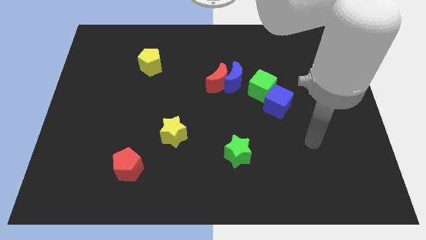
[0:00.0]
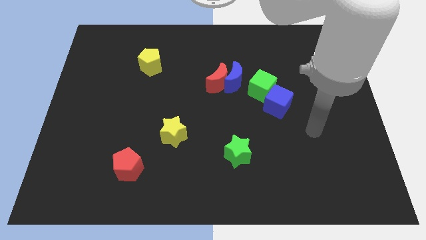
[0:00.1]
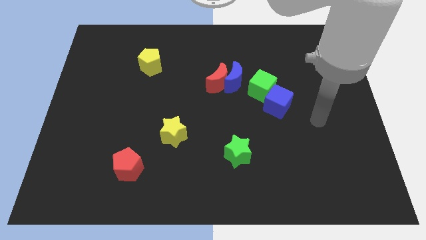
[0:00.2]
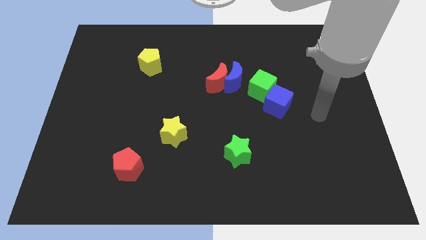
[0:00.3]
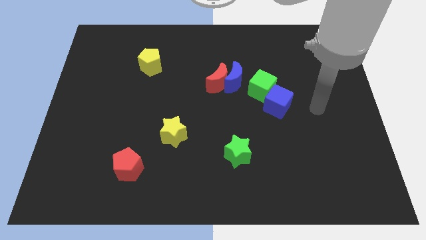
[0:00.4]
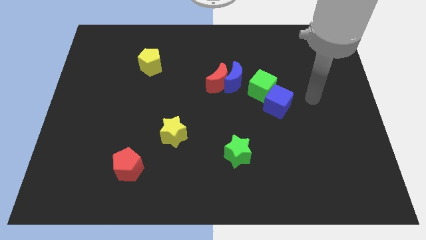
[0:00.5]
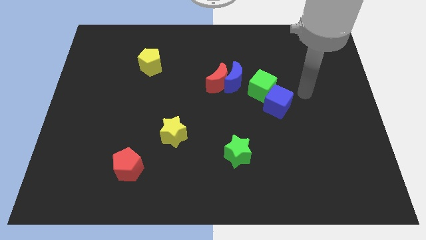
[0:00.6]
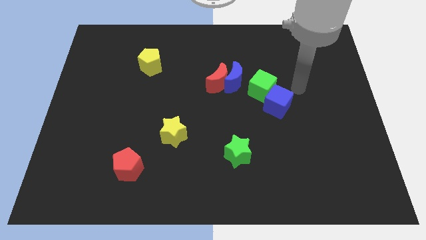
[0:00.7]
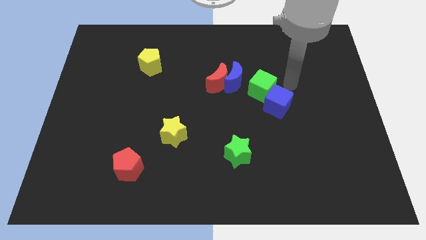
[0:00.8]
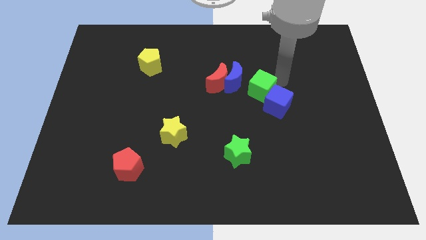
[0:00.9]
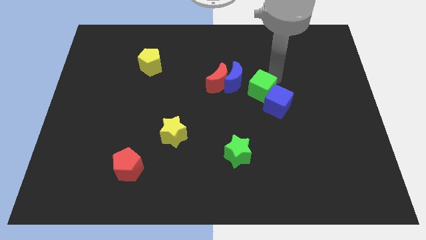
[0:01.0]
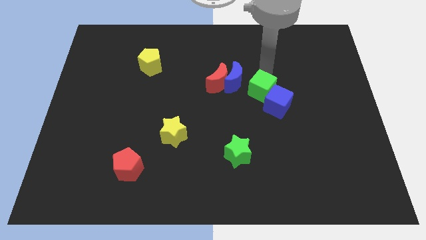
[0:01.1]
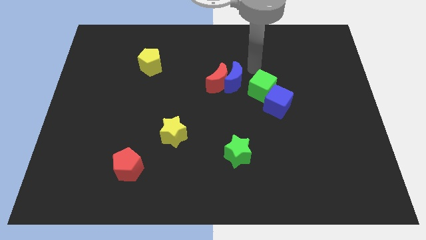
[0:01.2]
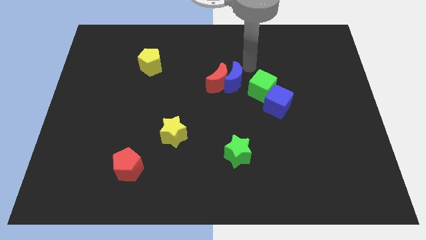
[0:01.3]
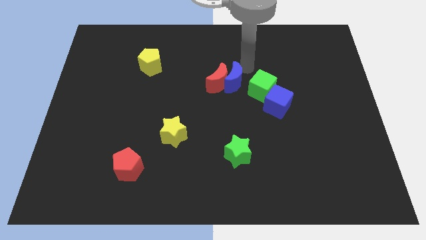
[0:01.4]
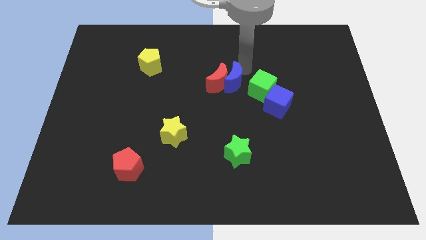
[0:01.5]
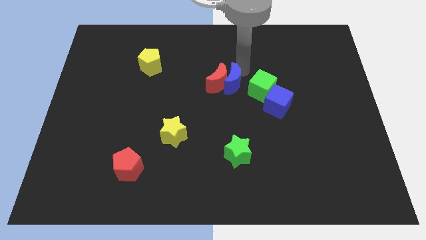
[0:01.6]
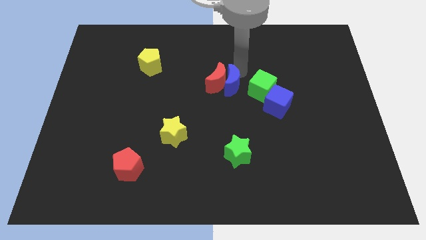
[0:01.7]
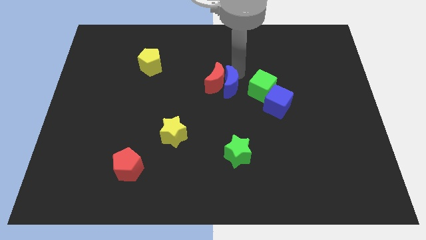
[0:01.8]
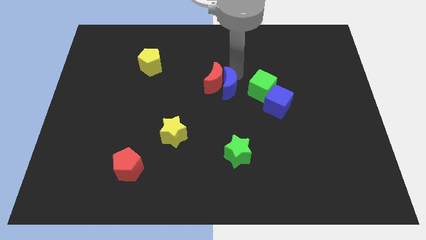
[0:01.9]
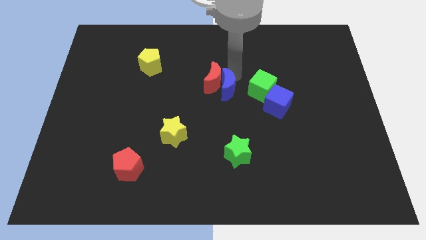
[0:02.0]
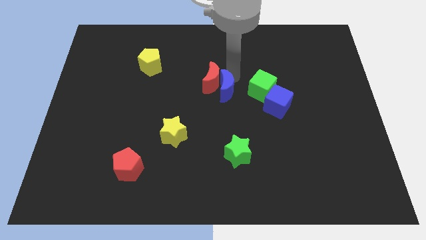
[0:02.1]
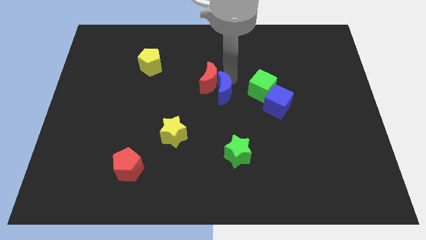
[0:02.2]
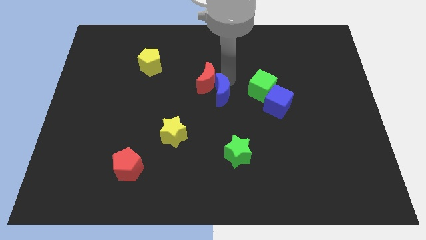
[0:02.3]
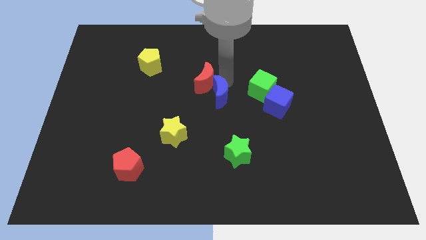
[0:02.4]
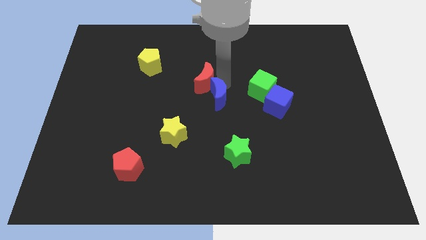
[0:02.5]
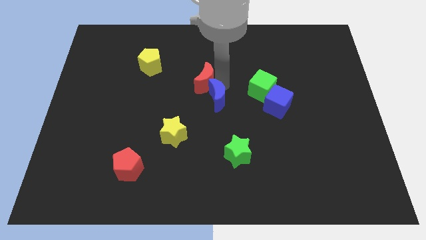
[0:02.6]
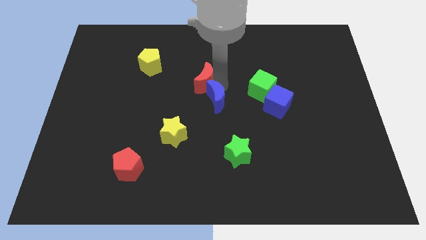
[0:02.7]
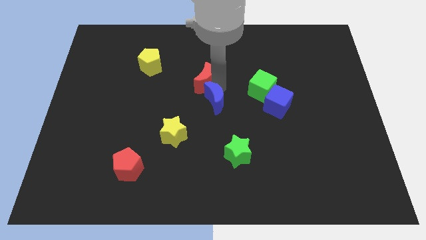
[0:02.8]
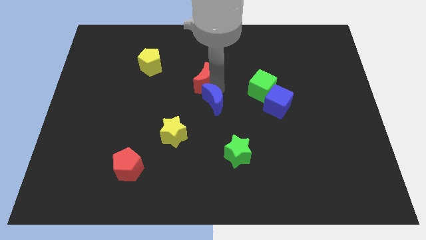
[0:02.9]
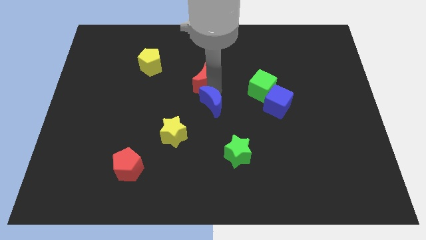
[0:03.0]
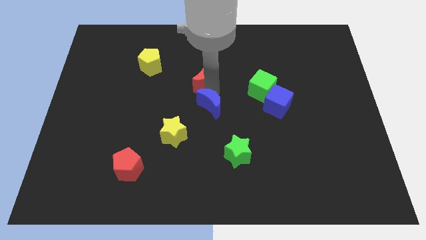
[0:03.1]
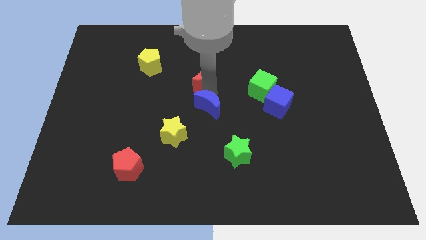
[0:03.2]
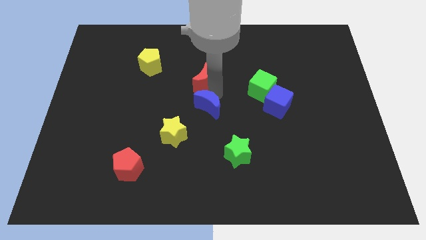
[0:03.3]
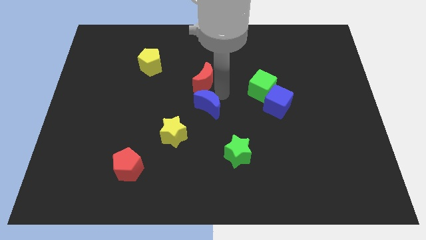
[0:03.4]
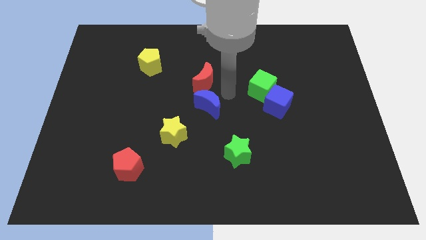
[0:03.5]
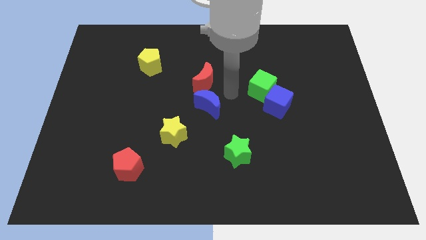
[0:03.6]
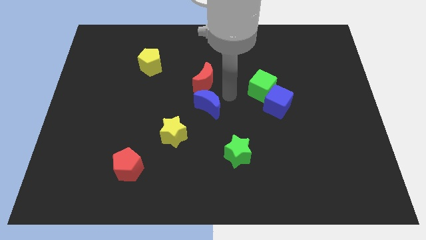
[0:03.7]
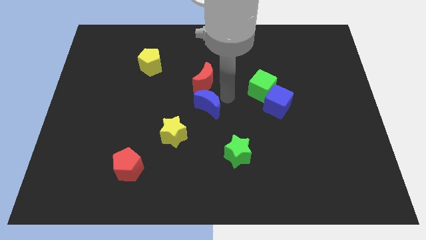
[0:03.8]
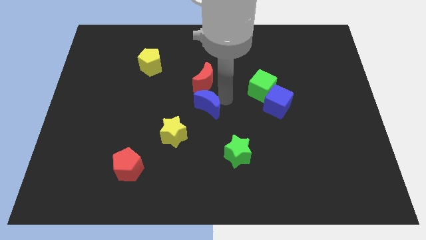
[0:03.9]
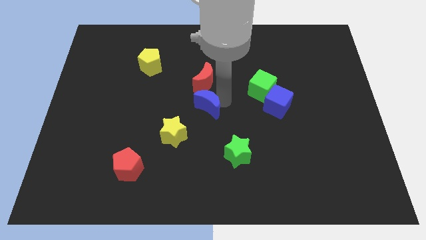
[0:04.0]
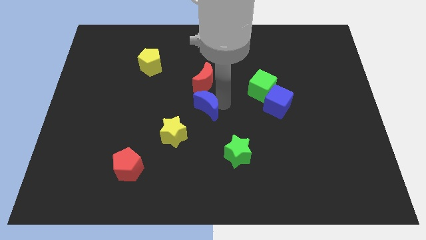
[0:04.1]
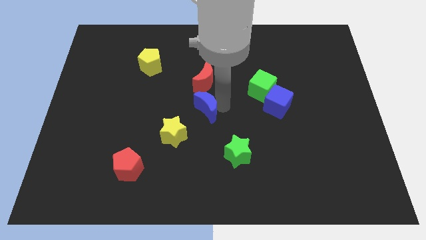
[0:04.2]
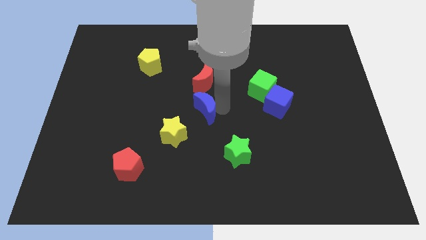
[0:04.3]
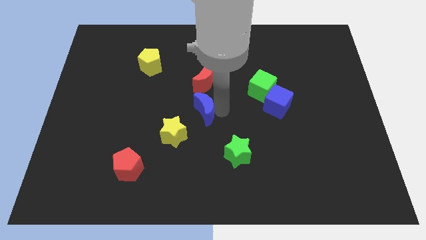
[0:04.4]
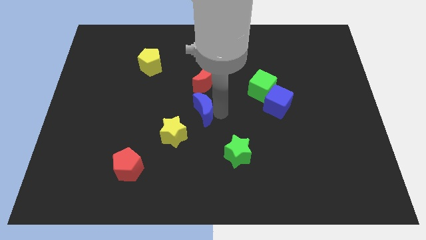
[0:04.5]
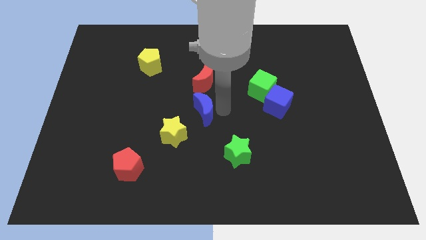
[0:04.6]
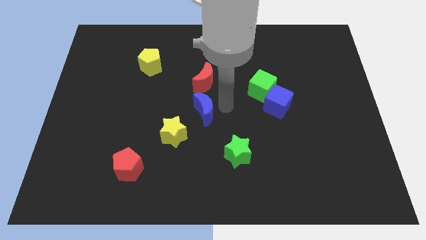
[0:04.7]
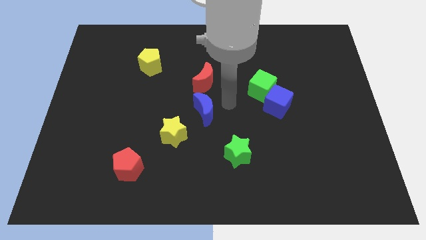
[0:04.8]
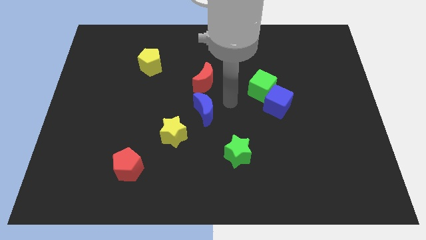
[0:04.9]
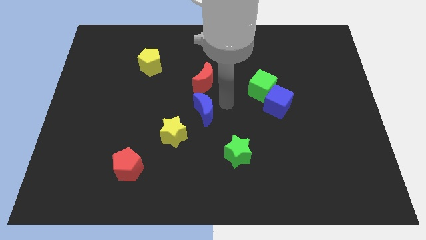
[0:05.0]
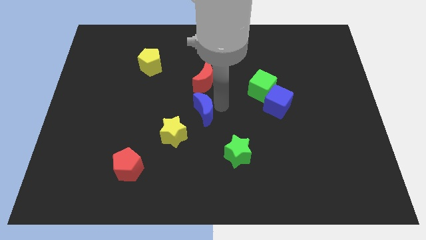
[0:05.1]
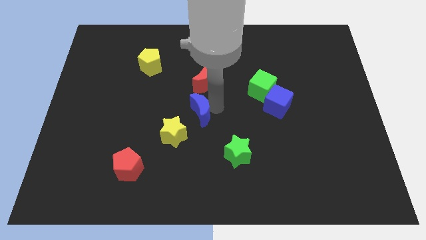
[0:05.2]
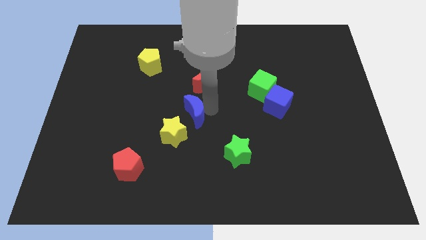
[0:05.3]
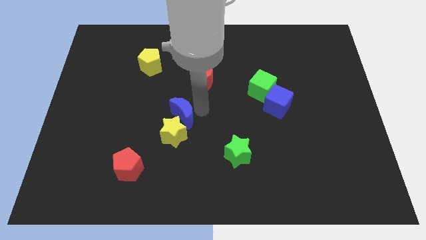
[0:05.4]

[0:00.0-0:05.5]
move the blue moon to the yellow star

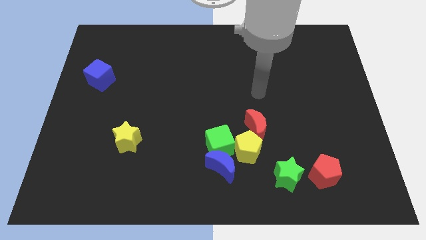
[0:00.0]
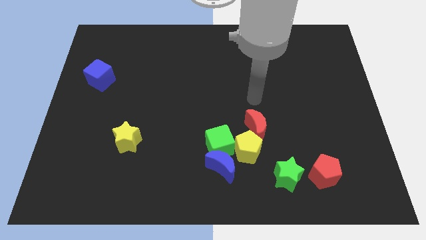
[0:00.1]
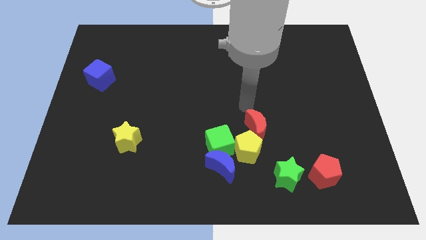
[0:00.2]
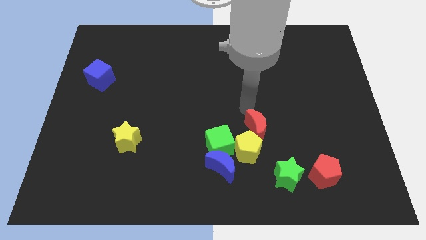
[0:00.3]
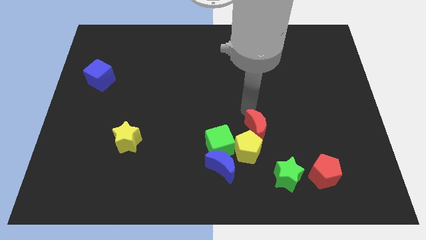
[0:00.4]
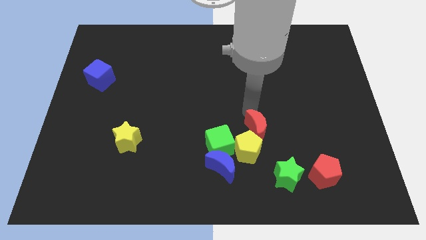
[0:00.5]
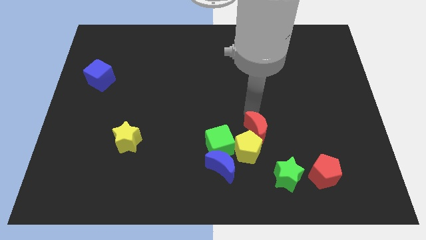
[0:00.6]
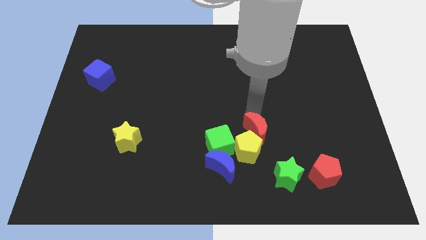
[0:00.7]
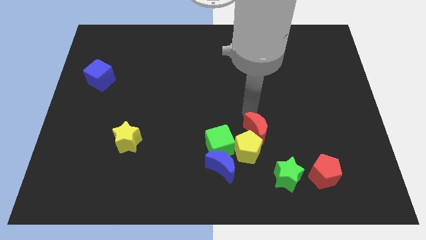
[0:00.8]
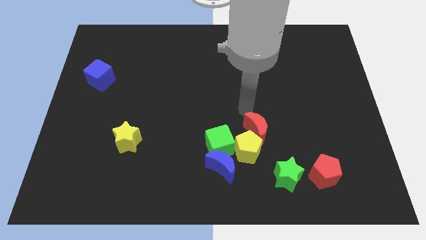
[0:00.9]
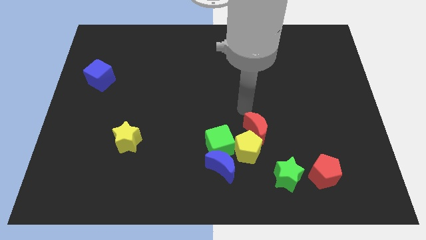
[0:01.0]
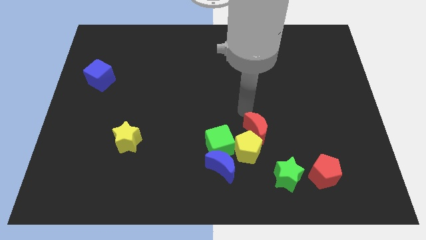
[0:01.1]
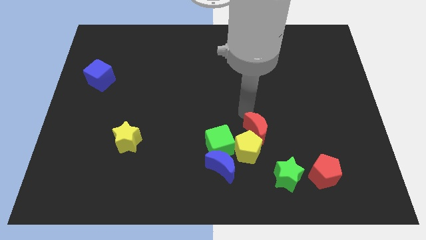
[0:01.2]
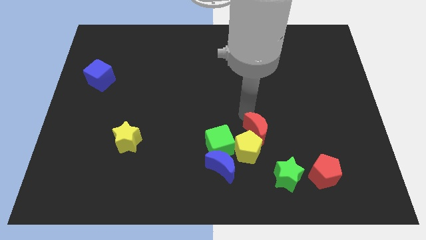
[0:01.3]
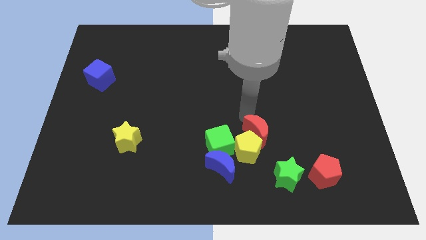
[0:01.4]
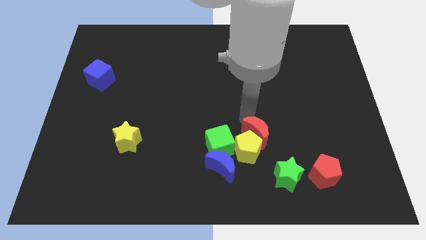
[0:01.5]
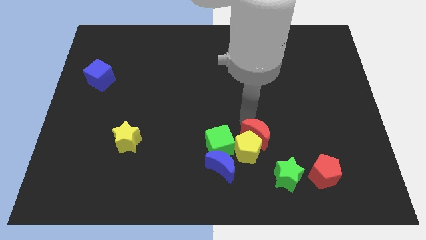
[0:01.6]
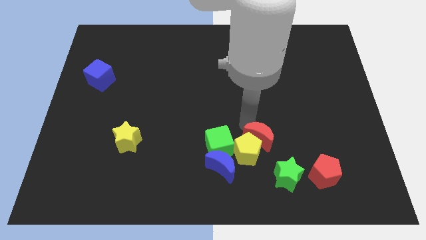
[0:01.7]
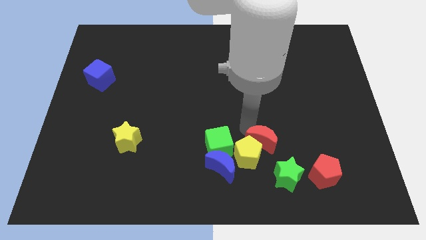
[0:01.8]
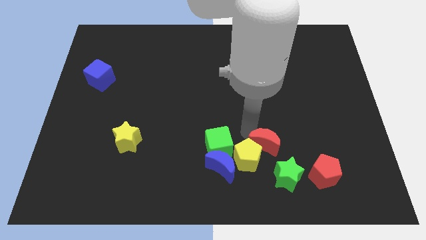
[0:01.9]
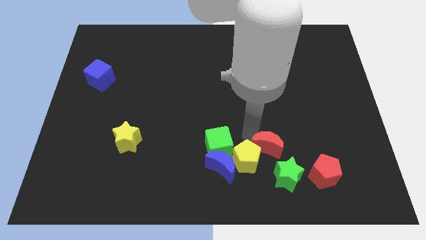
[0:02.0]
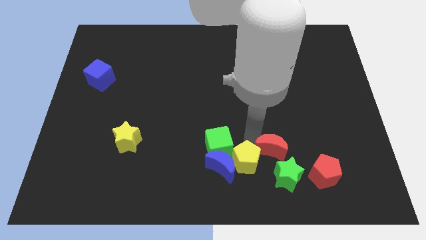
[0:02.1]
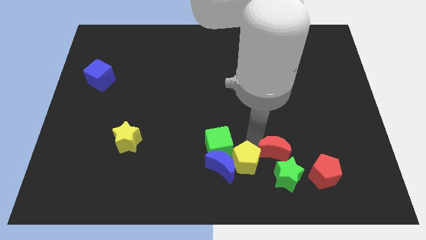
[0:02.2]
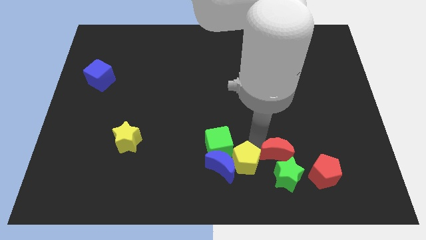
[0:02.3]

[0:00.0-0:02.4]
put the red moon to the green star

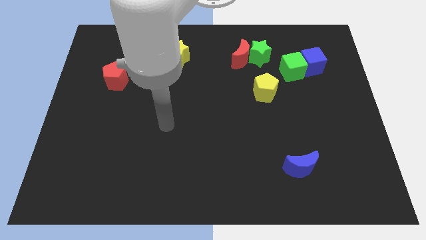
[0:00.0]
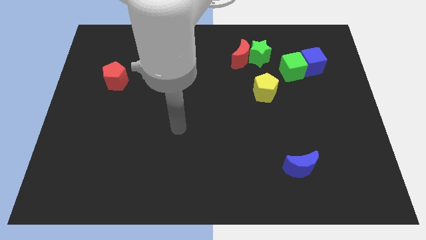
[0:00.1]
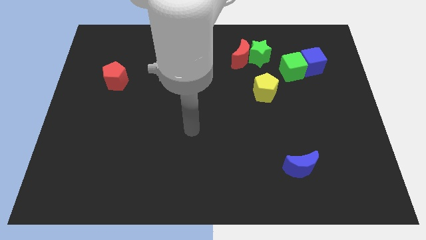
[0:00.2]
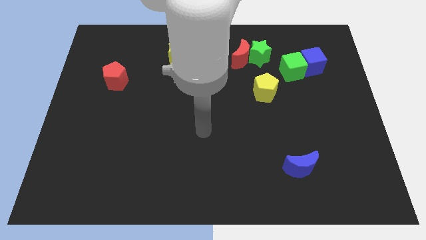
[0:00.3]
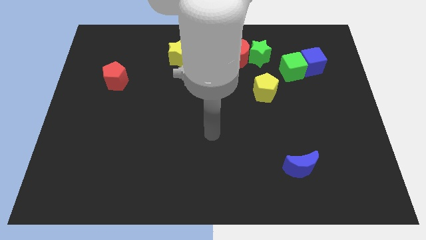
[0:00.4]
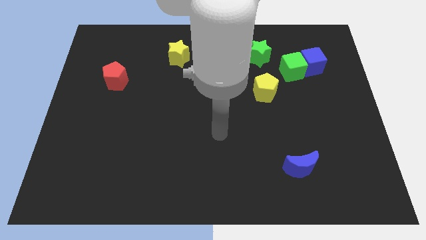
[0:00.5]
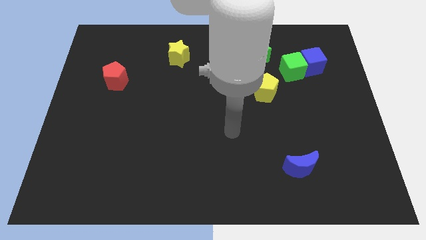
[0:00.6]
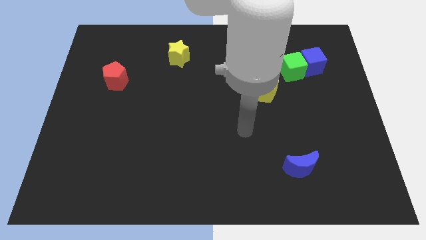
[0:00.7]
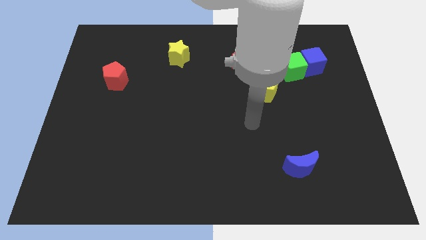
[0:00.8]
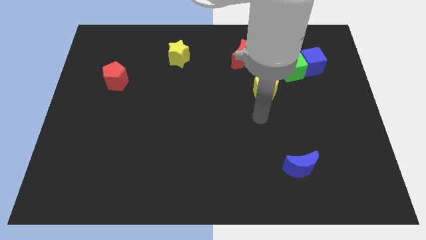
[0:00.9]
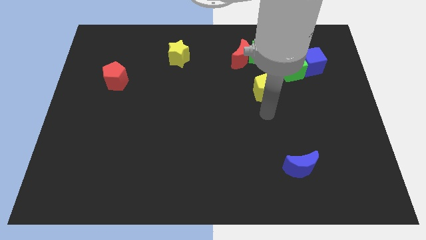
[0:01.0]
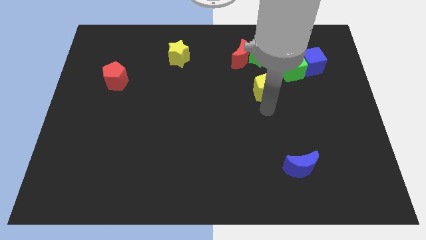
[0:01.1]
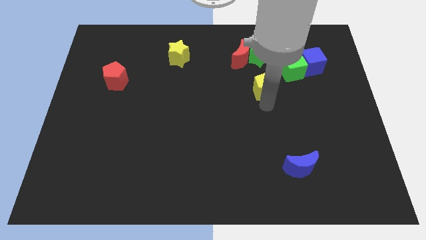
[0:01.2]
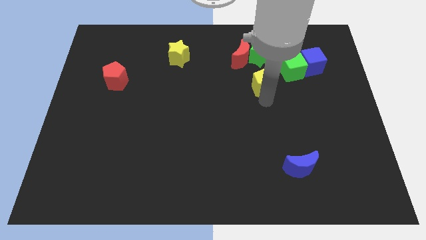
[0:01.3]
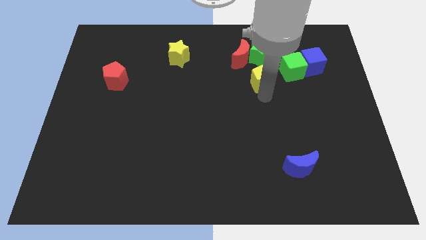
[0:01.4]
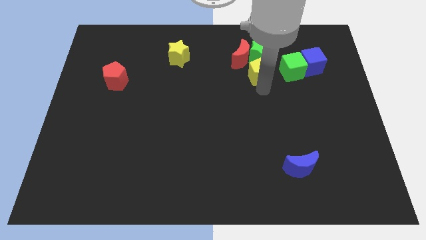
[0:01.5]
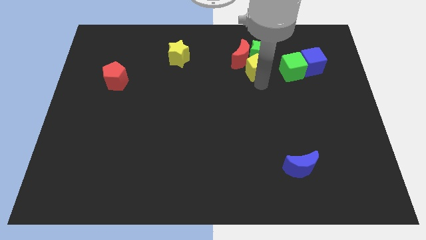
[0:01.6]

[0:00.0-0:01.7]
push the yellow pentagon towards the green star
